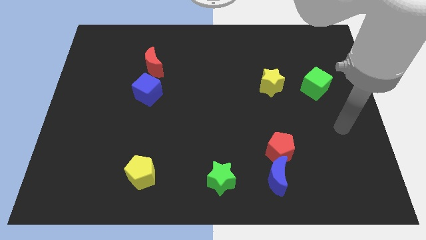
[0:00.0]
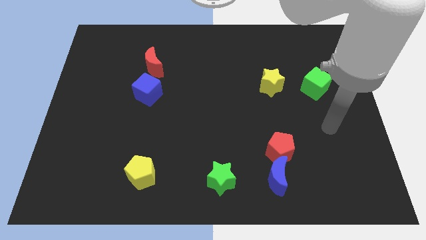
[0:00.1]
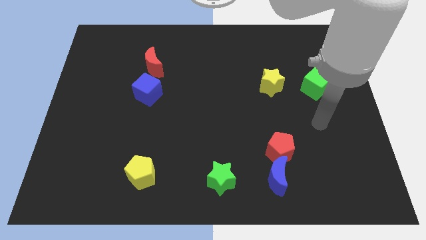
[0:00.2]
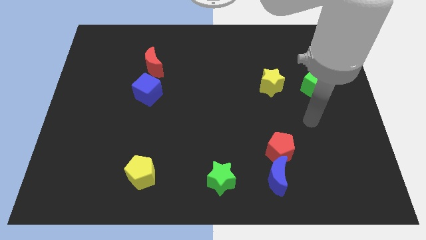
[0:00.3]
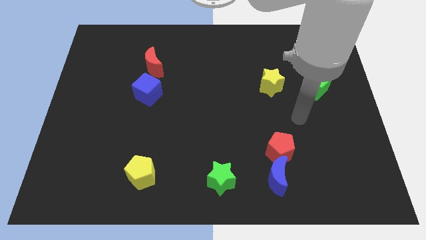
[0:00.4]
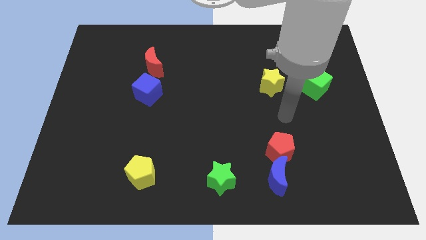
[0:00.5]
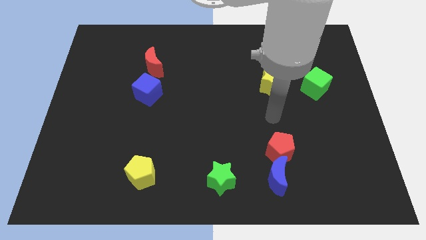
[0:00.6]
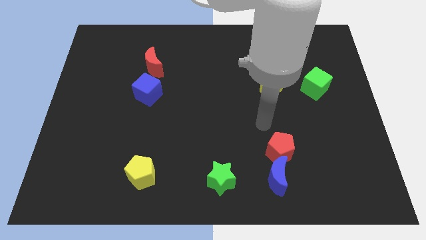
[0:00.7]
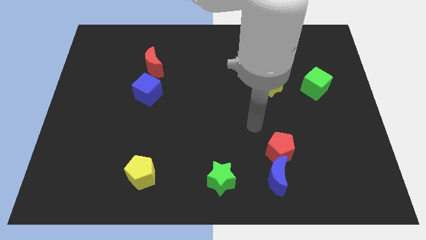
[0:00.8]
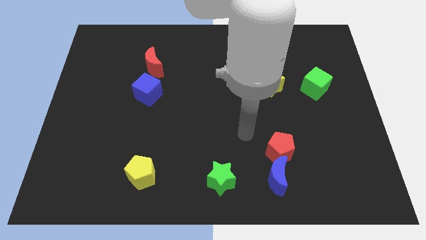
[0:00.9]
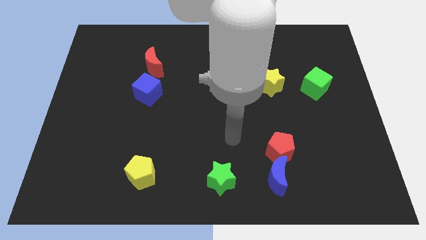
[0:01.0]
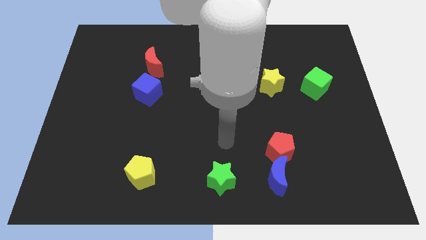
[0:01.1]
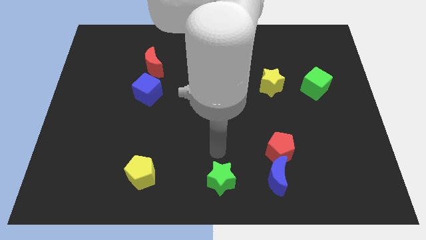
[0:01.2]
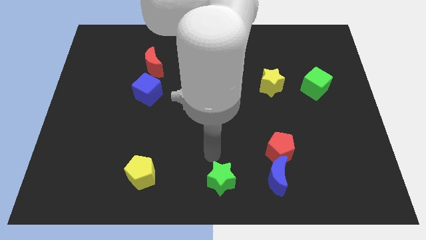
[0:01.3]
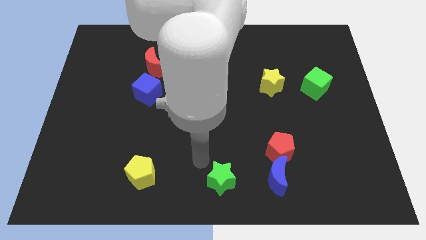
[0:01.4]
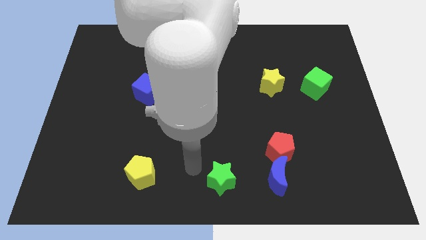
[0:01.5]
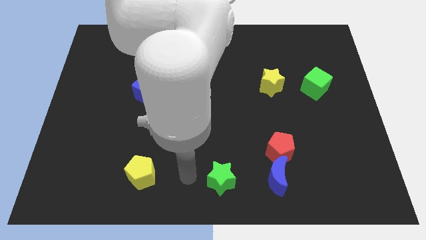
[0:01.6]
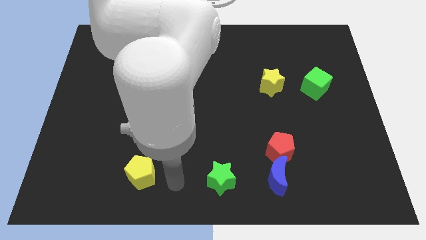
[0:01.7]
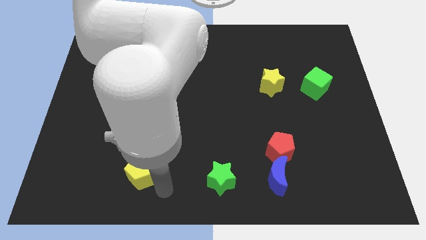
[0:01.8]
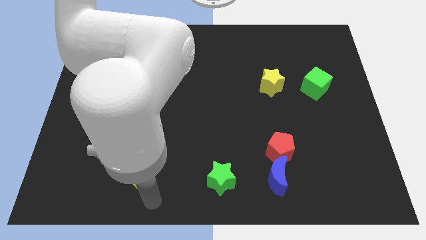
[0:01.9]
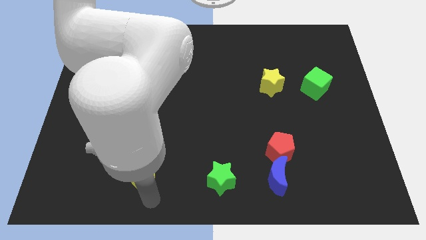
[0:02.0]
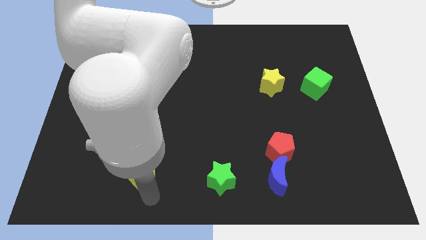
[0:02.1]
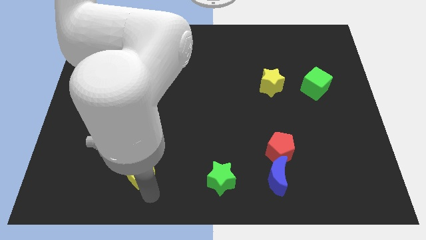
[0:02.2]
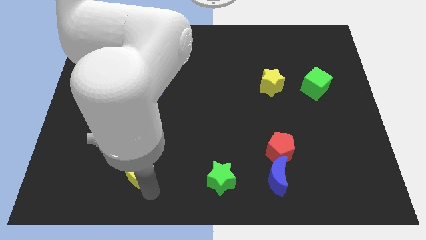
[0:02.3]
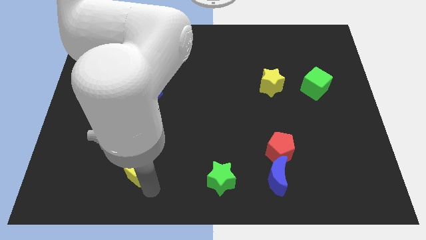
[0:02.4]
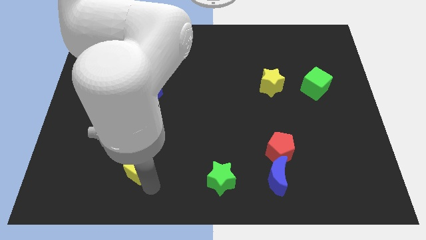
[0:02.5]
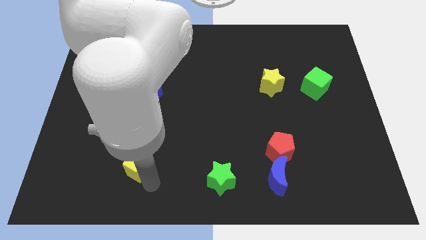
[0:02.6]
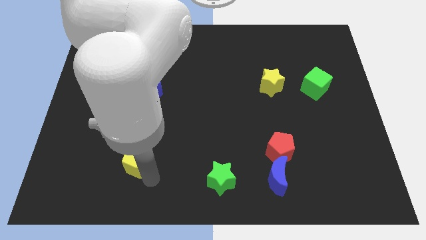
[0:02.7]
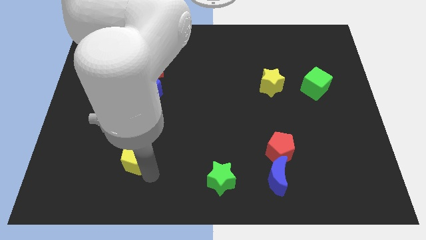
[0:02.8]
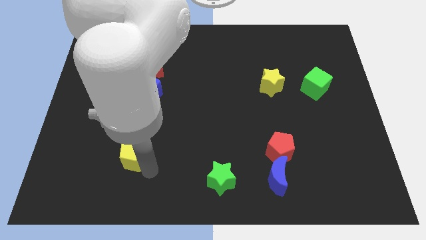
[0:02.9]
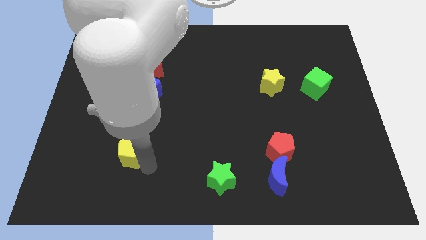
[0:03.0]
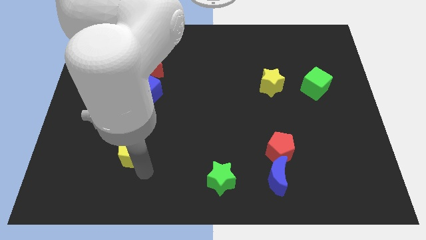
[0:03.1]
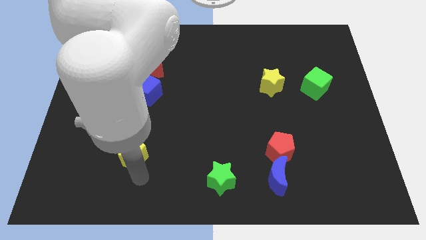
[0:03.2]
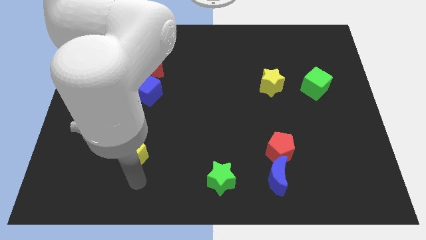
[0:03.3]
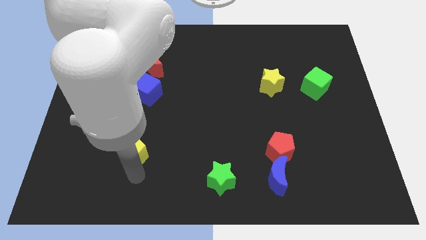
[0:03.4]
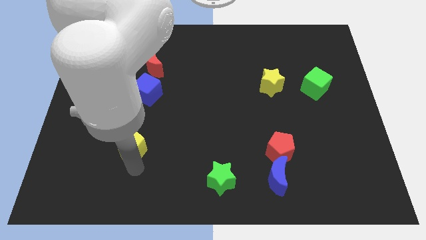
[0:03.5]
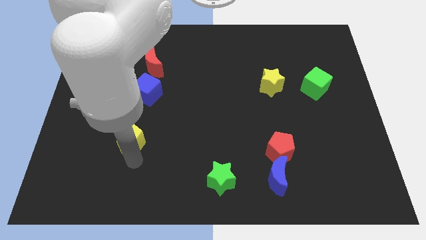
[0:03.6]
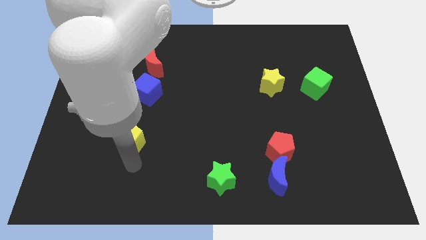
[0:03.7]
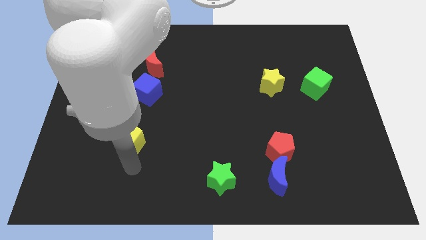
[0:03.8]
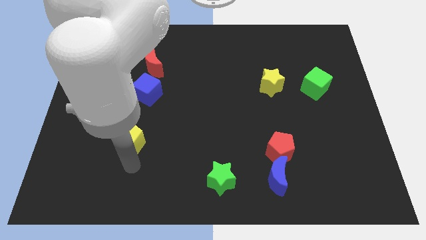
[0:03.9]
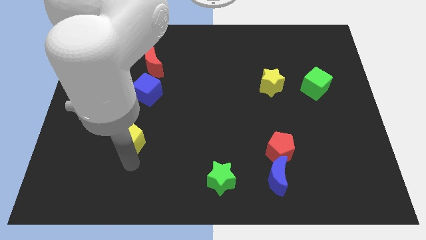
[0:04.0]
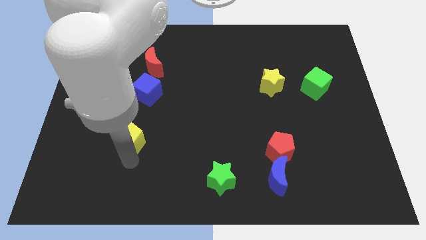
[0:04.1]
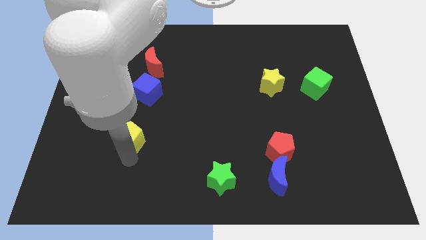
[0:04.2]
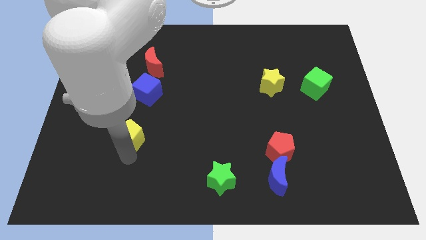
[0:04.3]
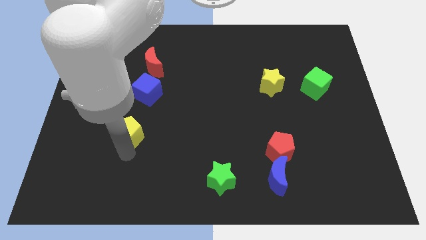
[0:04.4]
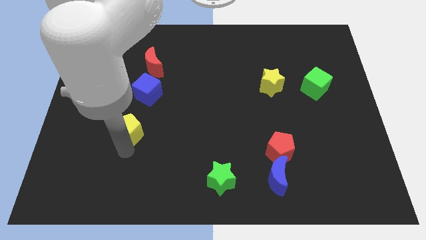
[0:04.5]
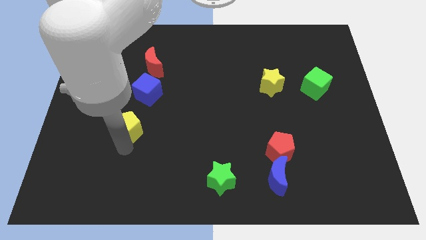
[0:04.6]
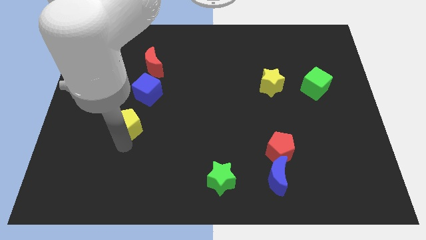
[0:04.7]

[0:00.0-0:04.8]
put the yellow pentagon to the bottom left side of the blue cube

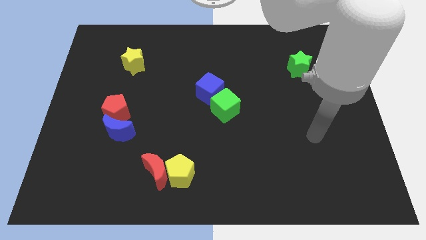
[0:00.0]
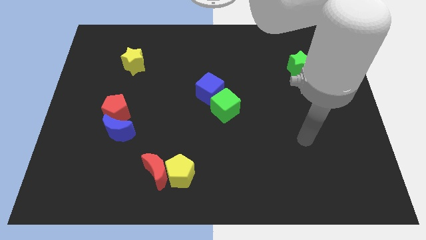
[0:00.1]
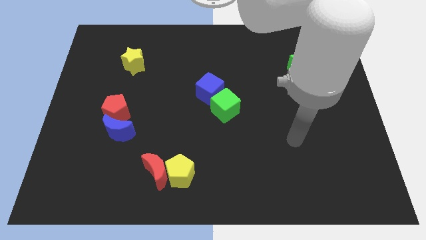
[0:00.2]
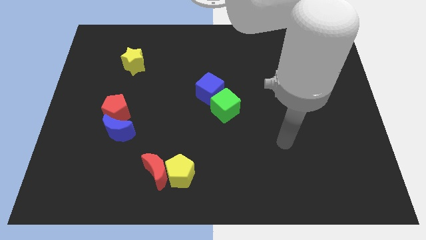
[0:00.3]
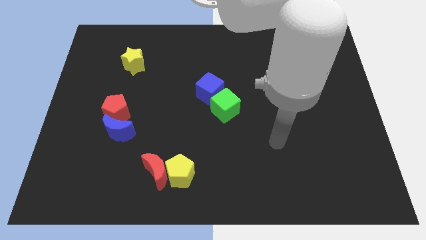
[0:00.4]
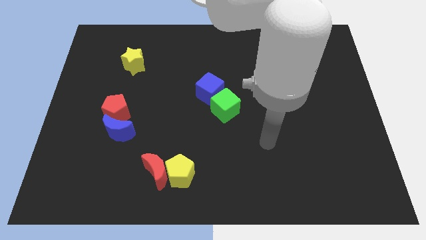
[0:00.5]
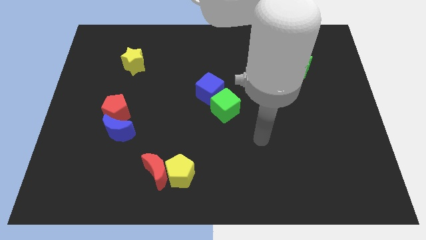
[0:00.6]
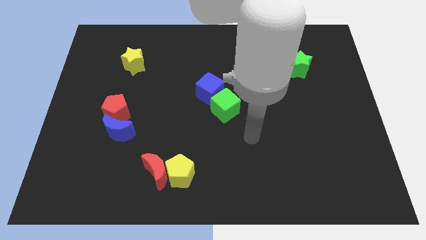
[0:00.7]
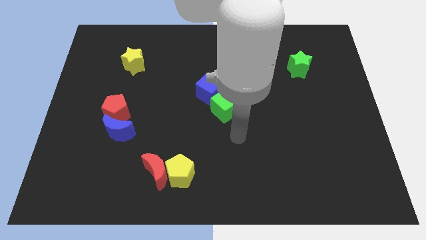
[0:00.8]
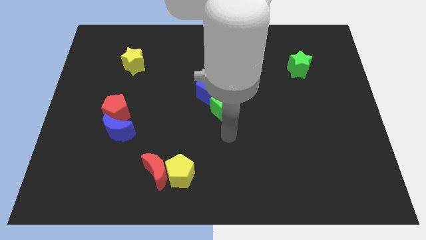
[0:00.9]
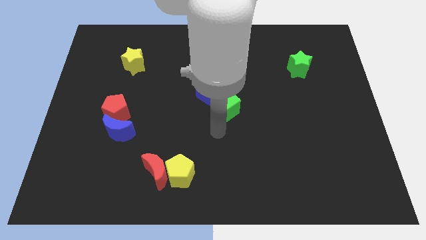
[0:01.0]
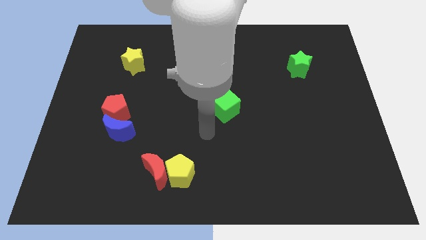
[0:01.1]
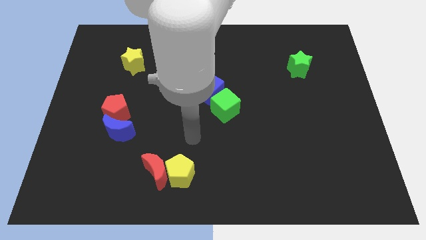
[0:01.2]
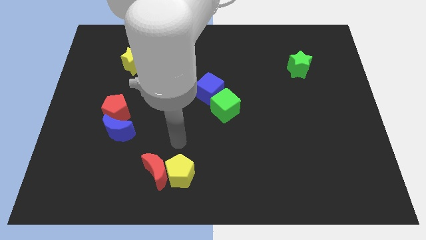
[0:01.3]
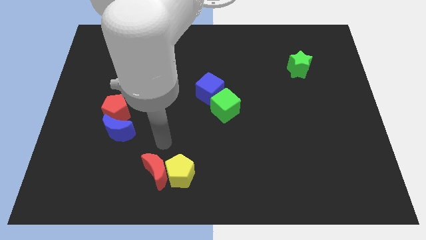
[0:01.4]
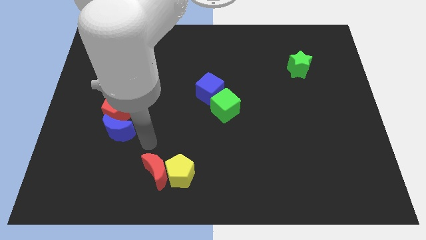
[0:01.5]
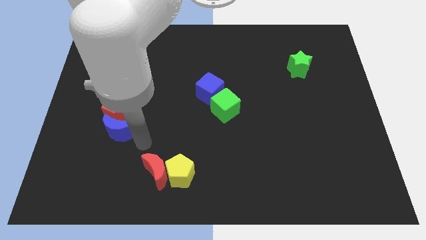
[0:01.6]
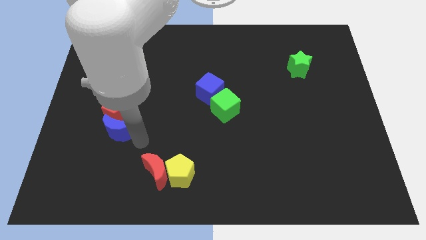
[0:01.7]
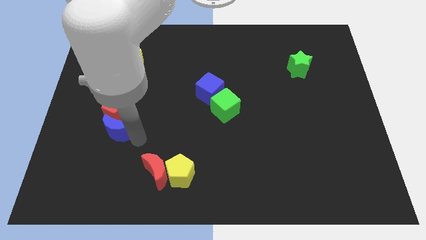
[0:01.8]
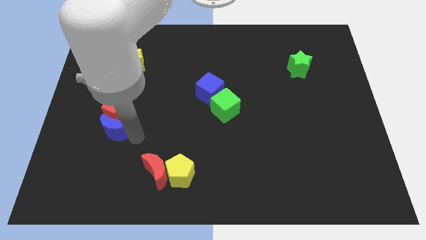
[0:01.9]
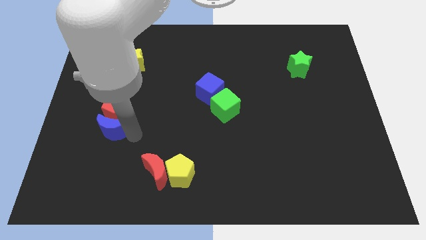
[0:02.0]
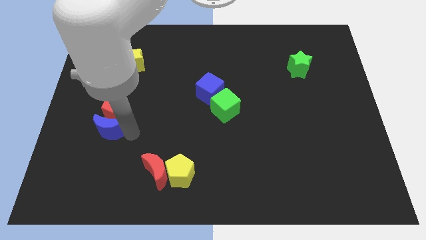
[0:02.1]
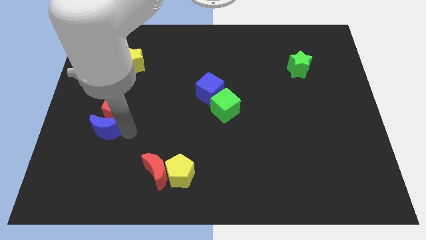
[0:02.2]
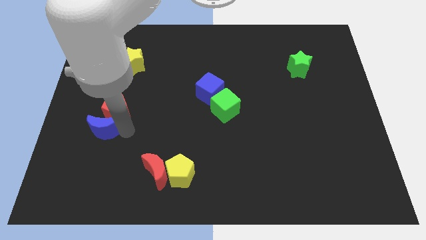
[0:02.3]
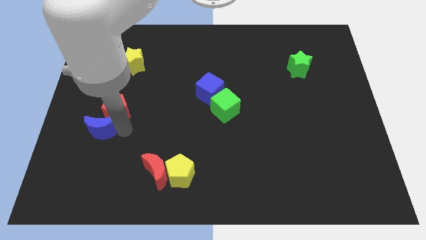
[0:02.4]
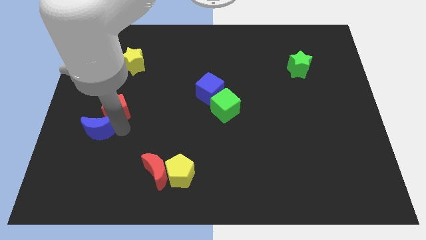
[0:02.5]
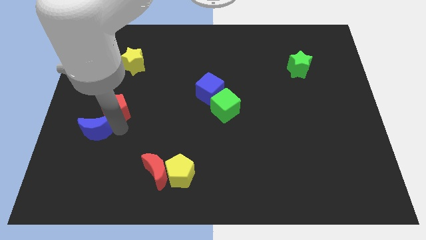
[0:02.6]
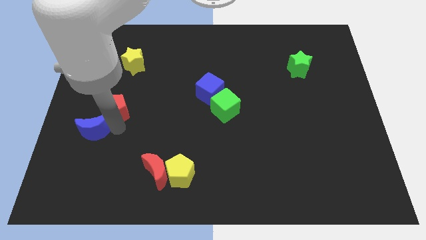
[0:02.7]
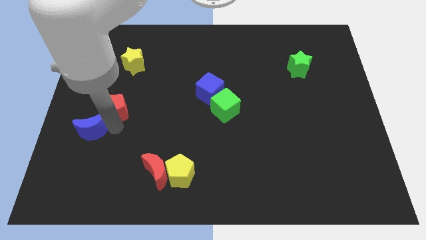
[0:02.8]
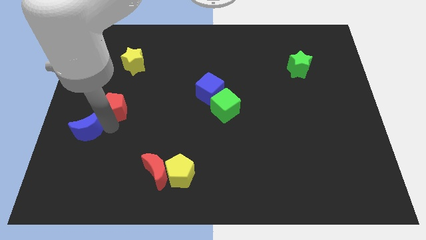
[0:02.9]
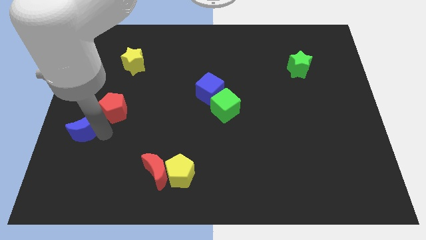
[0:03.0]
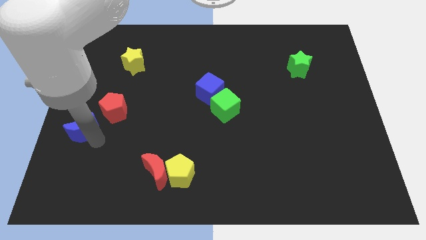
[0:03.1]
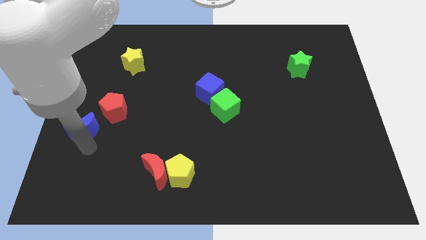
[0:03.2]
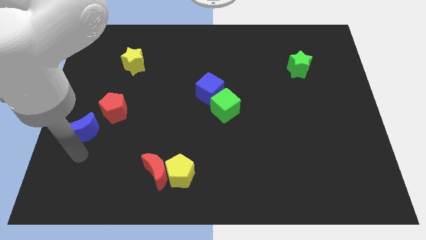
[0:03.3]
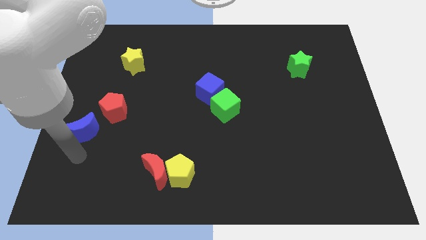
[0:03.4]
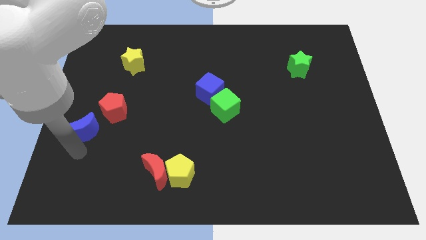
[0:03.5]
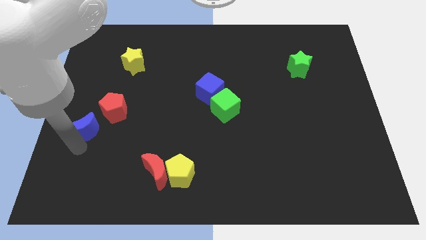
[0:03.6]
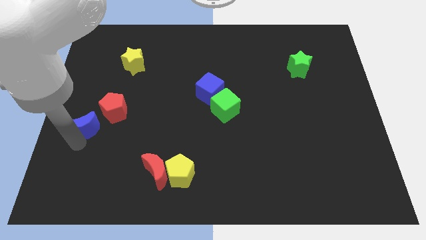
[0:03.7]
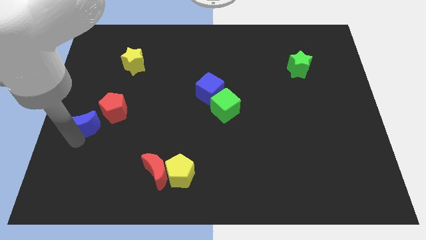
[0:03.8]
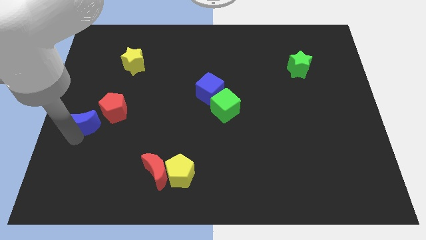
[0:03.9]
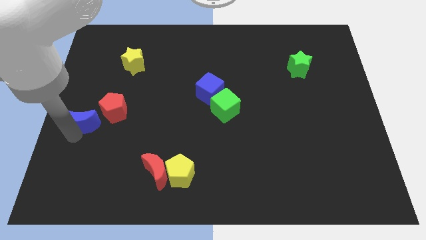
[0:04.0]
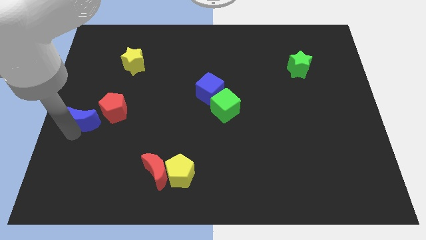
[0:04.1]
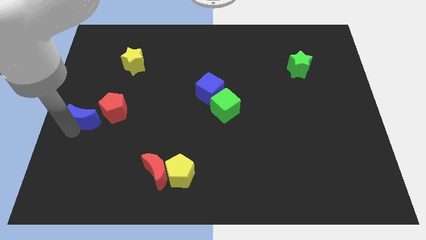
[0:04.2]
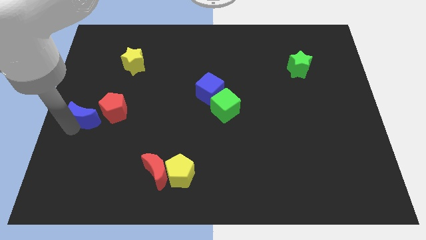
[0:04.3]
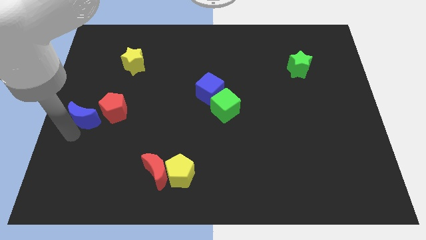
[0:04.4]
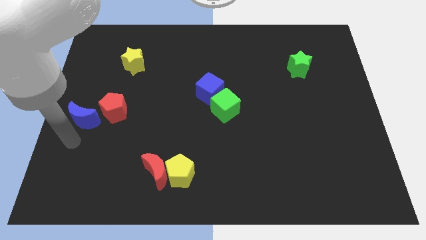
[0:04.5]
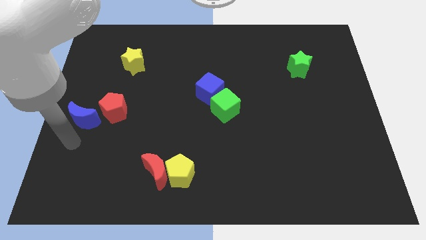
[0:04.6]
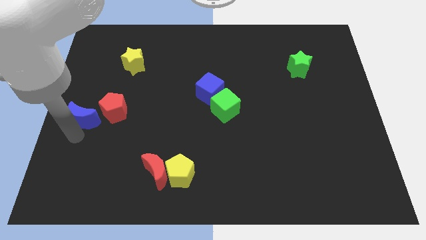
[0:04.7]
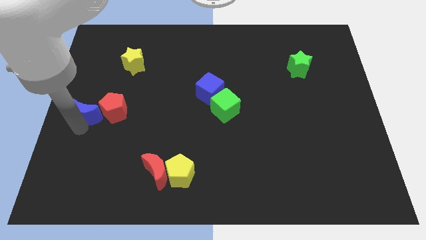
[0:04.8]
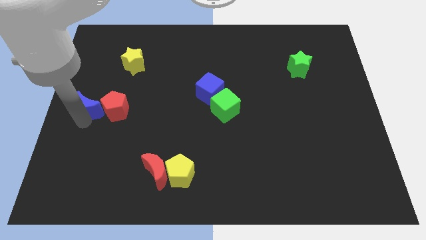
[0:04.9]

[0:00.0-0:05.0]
put the blue moon to the top left of the red pentagon
